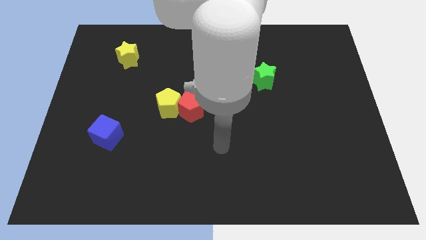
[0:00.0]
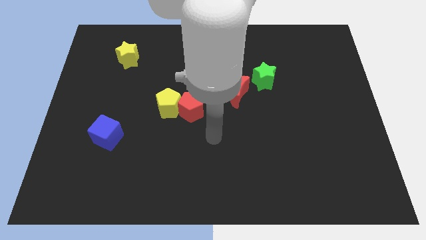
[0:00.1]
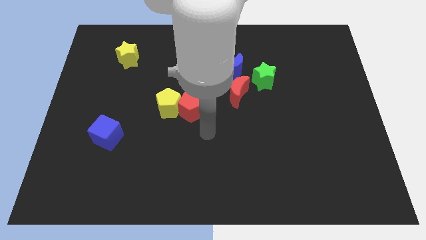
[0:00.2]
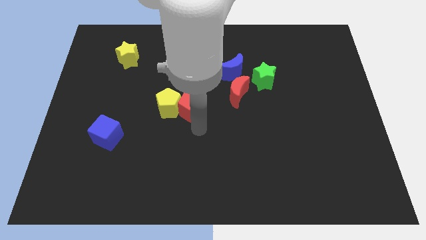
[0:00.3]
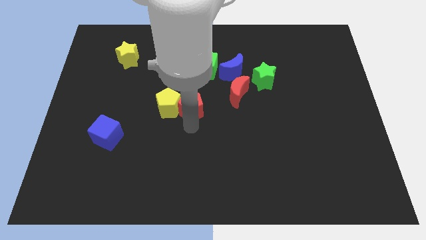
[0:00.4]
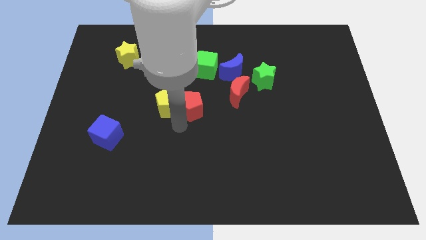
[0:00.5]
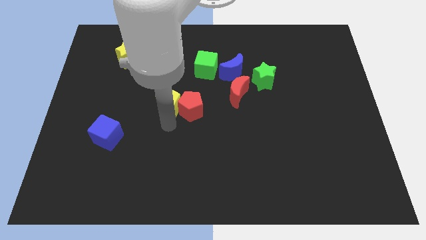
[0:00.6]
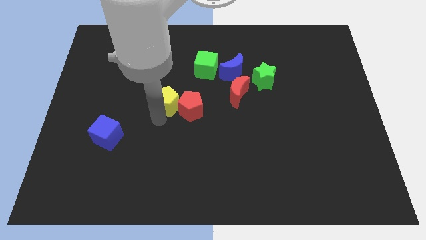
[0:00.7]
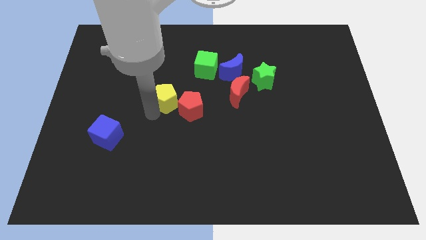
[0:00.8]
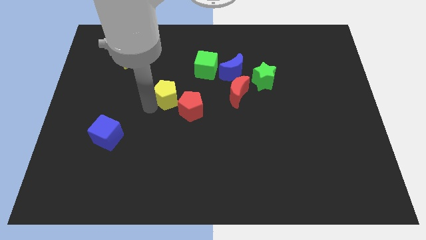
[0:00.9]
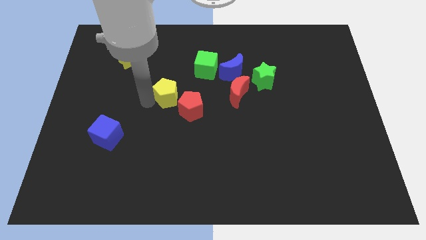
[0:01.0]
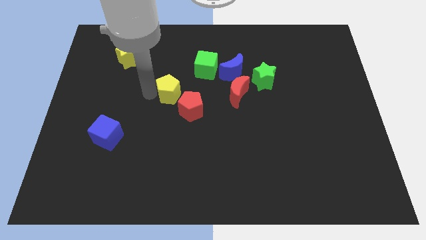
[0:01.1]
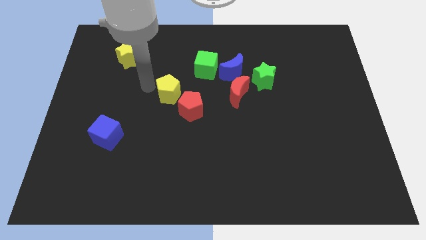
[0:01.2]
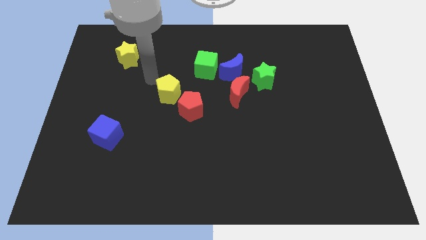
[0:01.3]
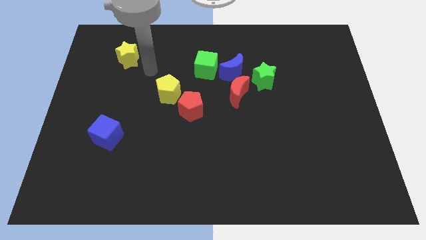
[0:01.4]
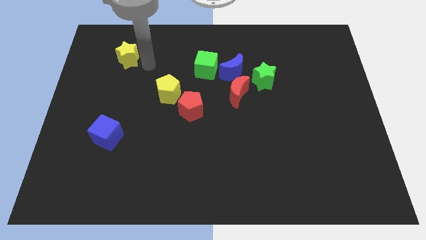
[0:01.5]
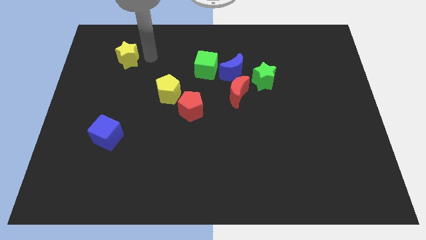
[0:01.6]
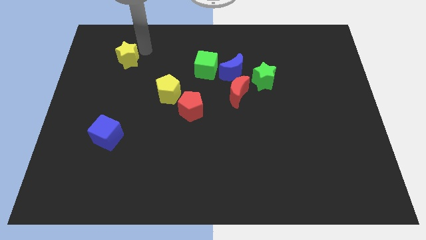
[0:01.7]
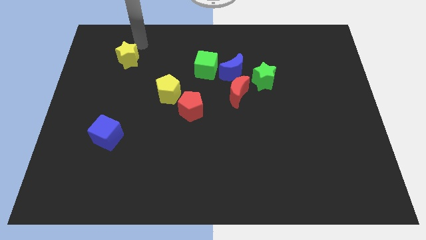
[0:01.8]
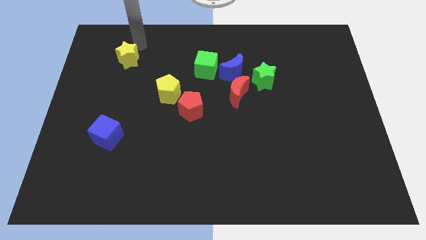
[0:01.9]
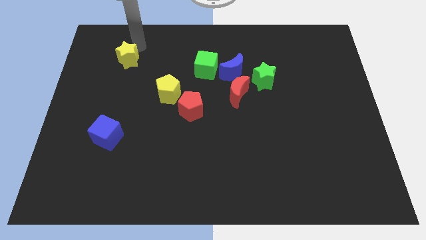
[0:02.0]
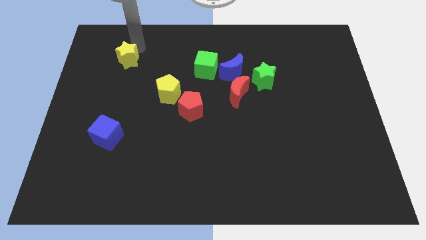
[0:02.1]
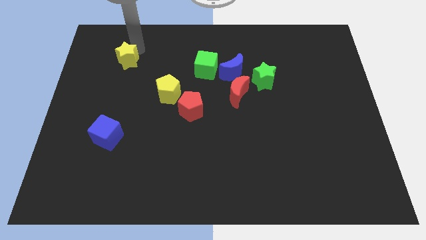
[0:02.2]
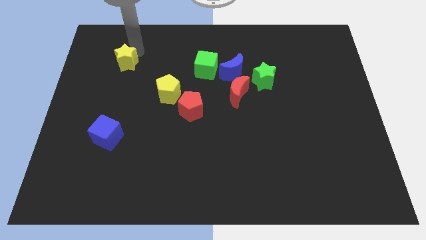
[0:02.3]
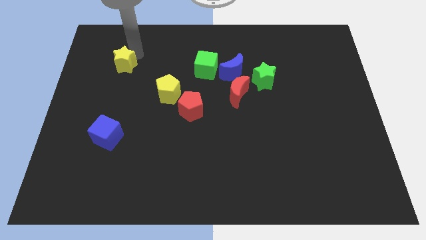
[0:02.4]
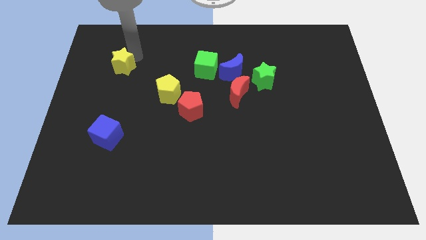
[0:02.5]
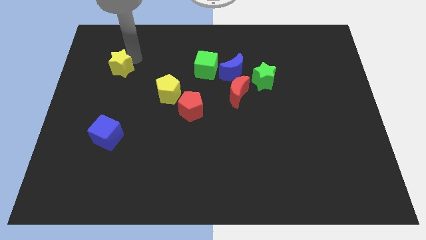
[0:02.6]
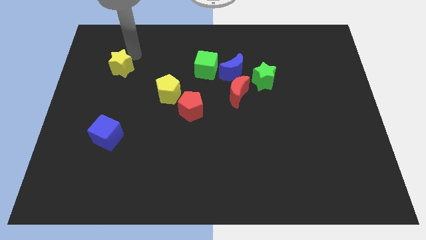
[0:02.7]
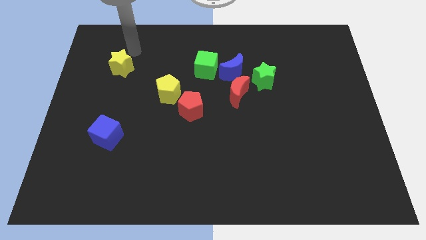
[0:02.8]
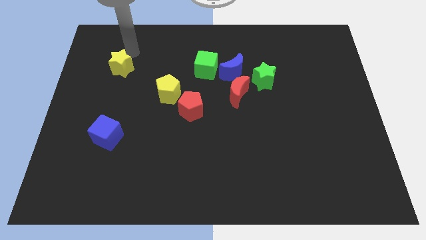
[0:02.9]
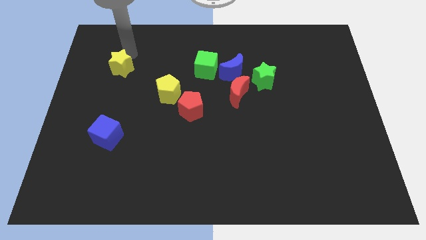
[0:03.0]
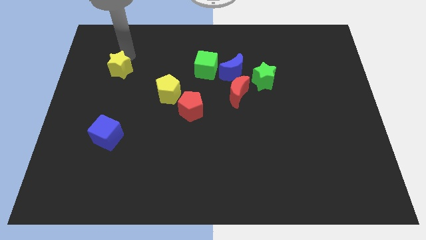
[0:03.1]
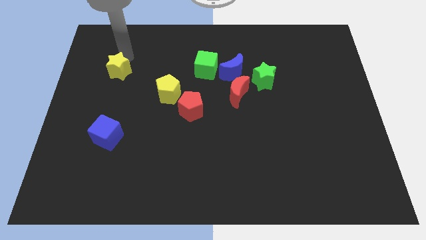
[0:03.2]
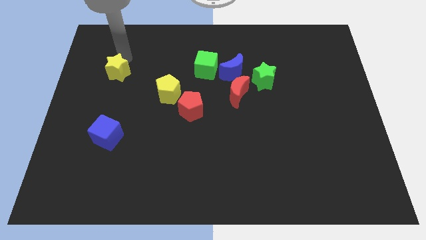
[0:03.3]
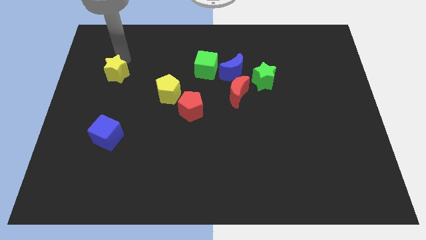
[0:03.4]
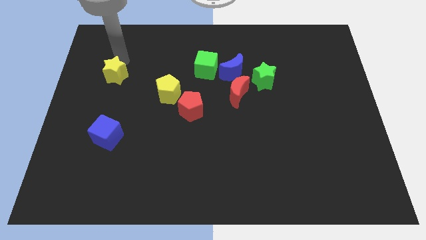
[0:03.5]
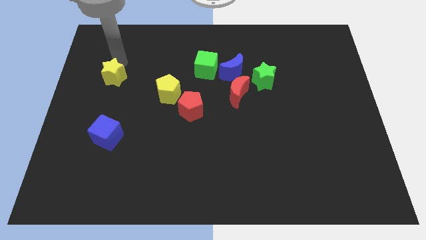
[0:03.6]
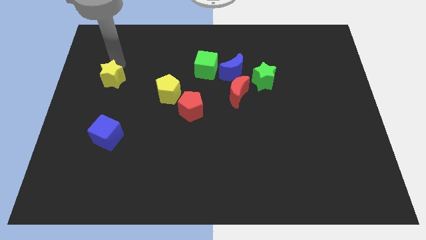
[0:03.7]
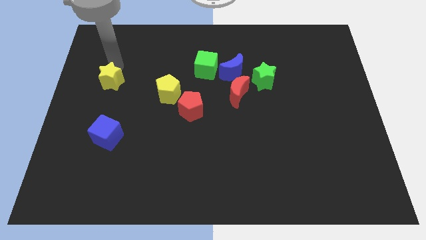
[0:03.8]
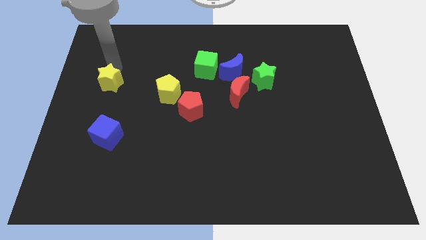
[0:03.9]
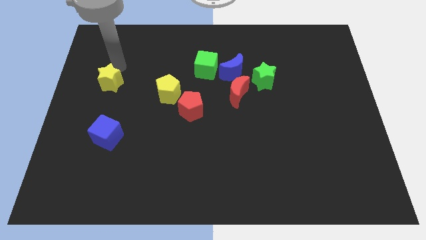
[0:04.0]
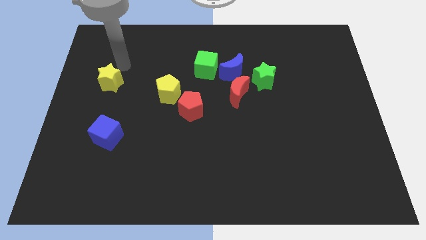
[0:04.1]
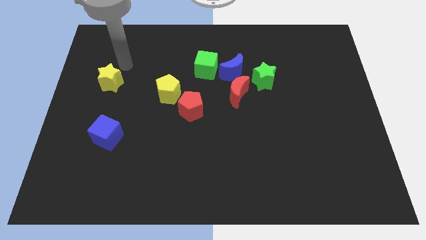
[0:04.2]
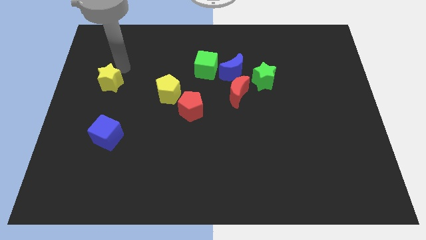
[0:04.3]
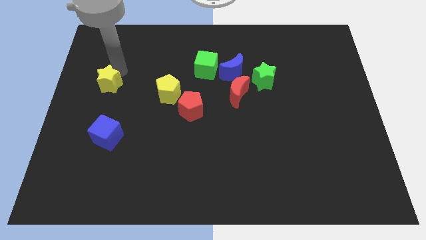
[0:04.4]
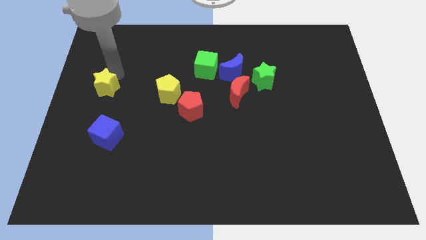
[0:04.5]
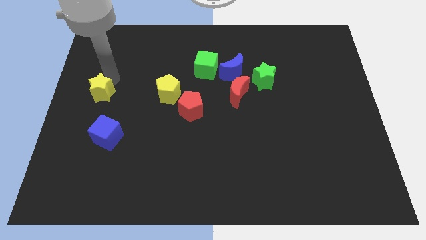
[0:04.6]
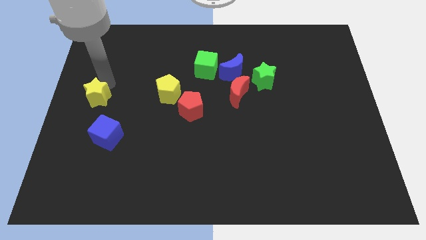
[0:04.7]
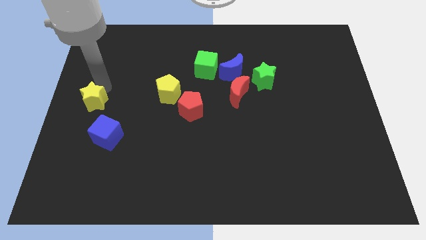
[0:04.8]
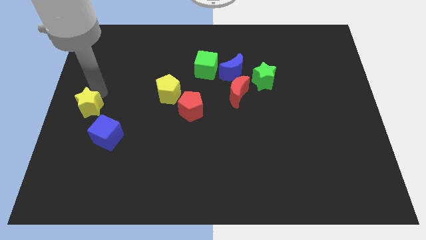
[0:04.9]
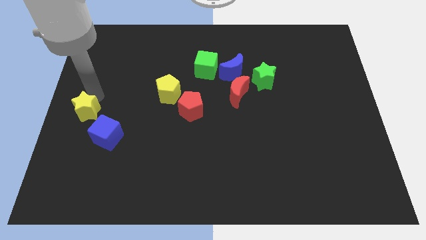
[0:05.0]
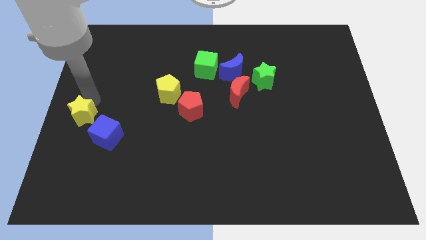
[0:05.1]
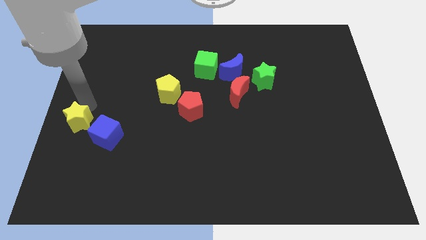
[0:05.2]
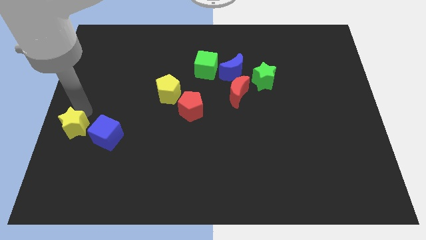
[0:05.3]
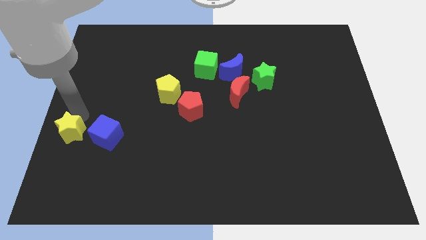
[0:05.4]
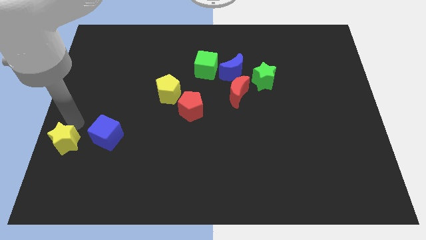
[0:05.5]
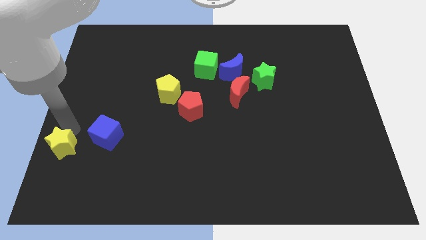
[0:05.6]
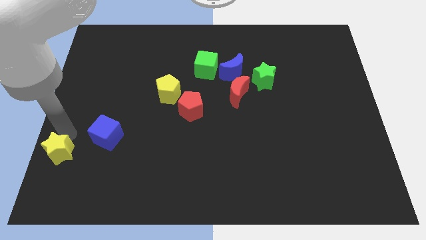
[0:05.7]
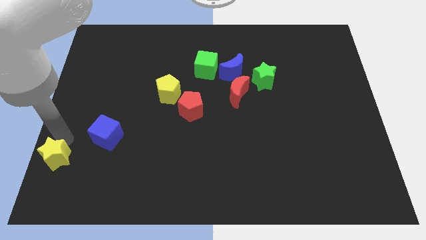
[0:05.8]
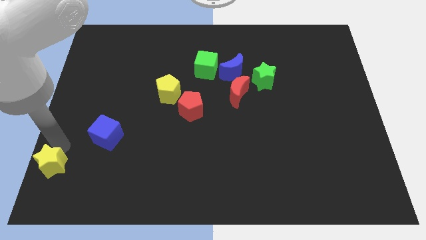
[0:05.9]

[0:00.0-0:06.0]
push the yellow star to the bottom left
